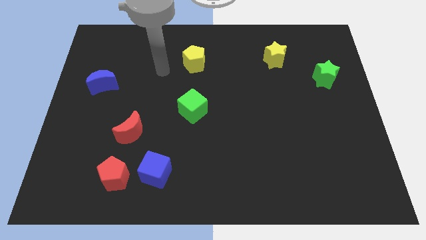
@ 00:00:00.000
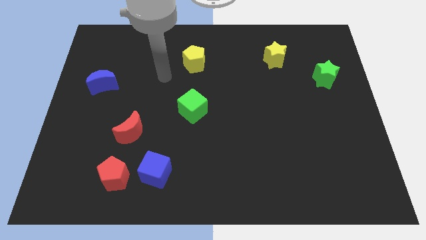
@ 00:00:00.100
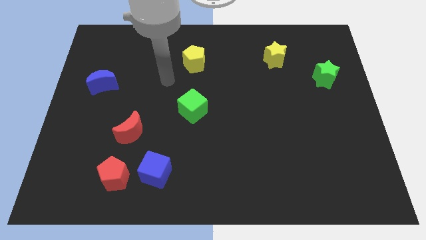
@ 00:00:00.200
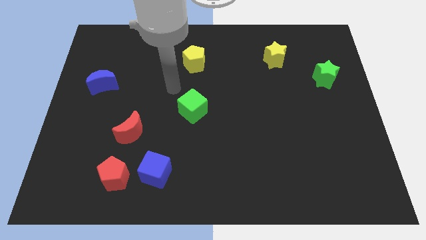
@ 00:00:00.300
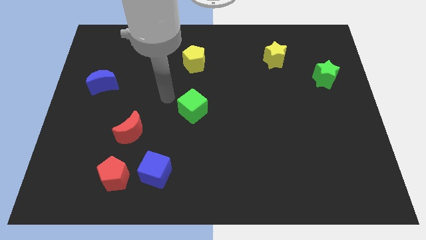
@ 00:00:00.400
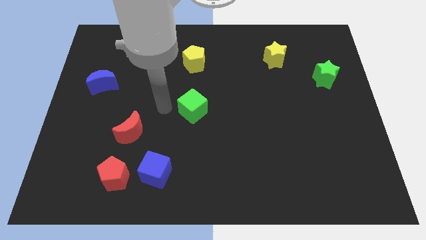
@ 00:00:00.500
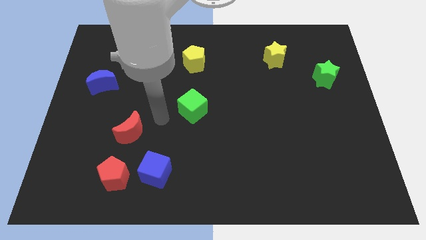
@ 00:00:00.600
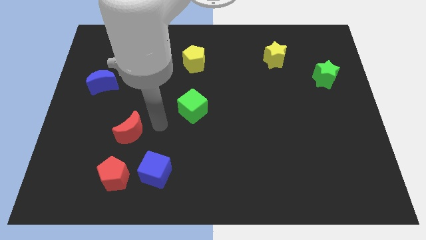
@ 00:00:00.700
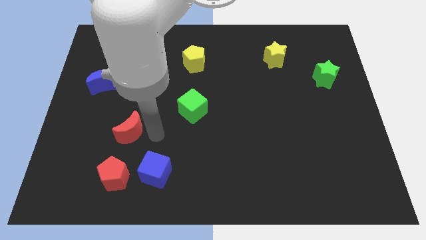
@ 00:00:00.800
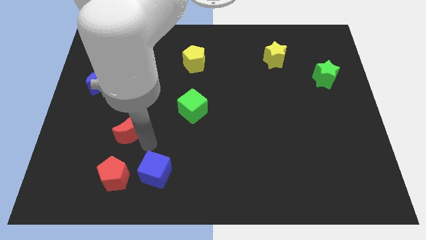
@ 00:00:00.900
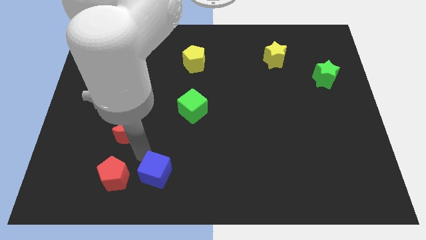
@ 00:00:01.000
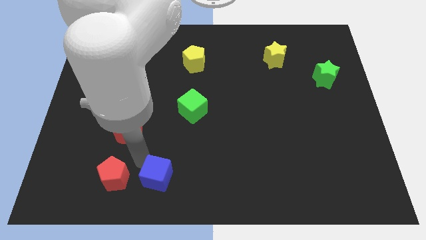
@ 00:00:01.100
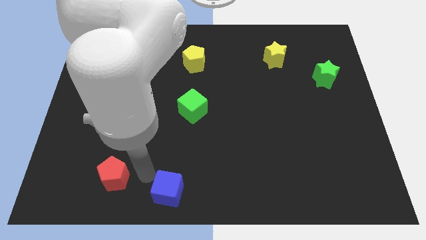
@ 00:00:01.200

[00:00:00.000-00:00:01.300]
separate the red pentagon from the blue cube

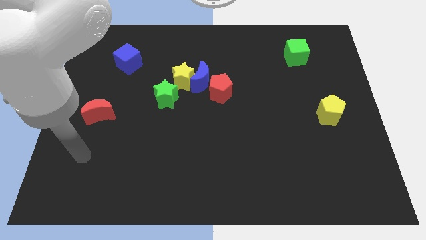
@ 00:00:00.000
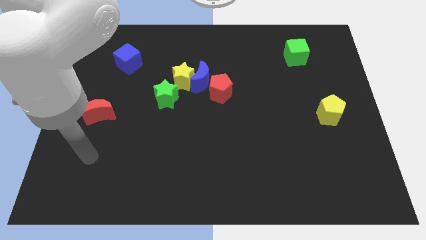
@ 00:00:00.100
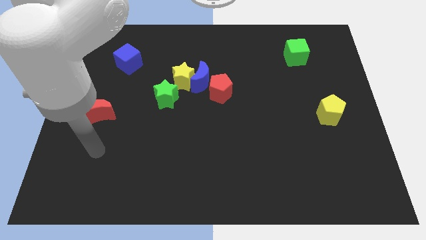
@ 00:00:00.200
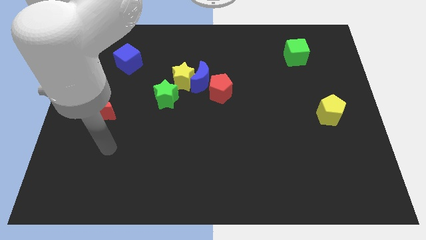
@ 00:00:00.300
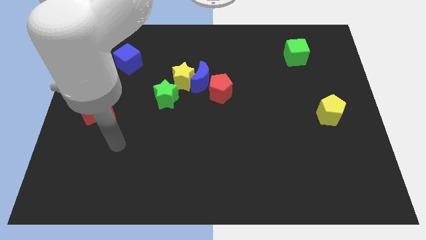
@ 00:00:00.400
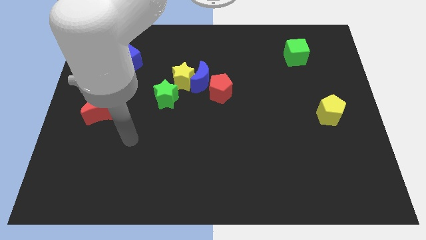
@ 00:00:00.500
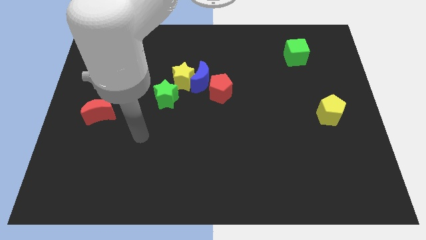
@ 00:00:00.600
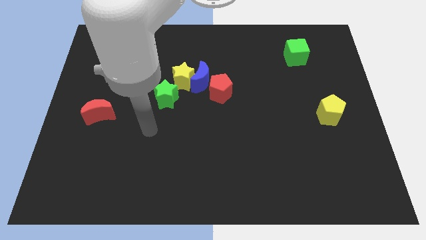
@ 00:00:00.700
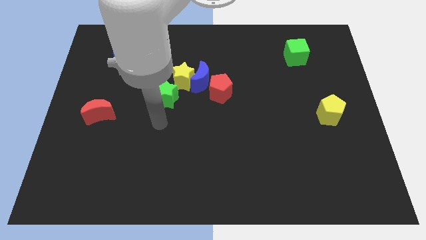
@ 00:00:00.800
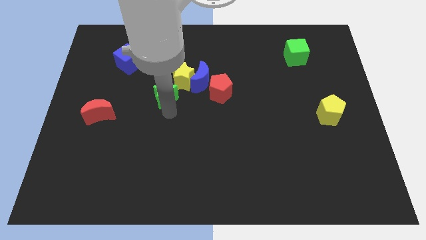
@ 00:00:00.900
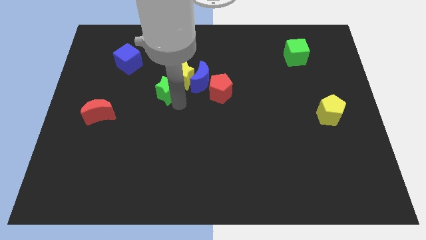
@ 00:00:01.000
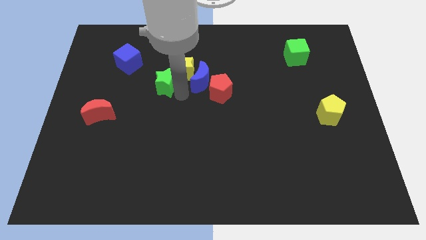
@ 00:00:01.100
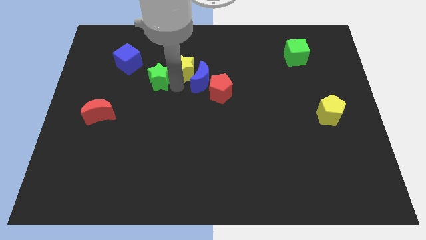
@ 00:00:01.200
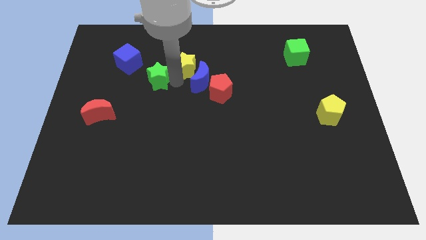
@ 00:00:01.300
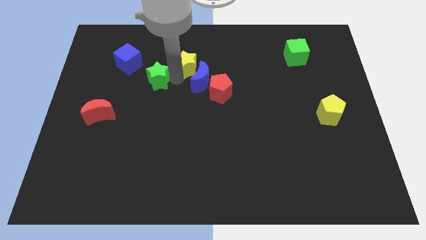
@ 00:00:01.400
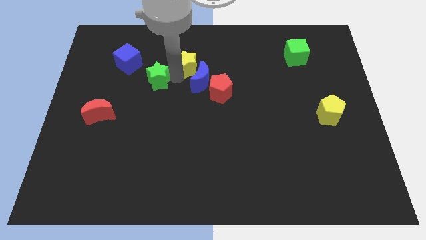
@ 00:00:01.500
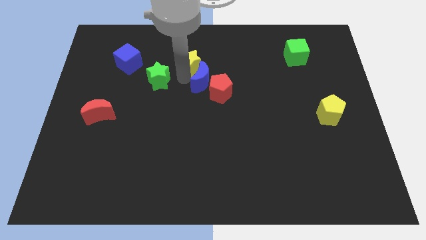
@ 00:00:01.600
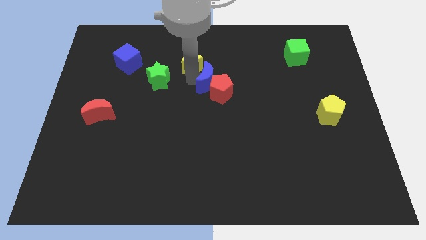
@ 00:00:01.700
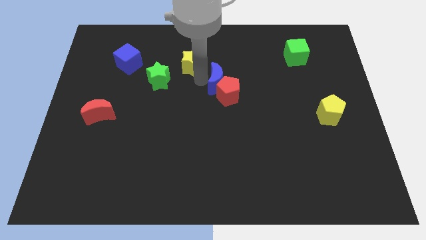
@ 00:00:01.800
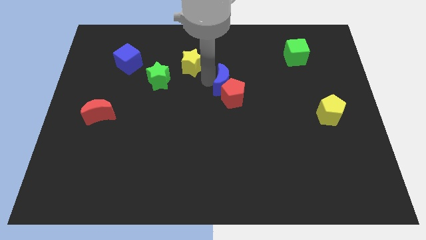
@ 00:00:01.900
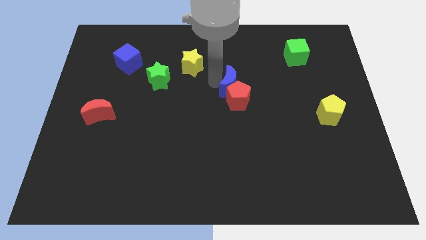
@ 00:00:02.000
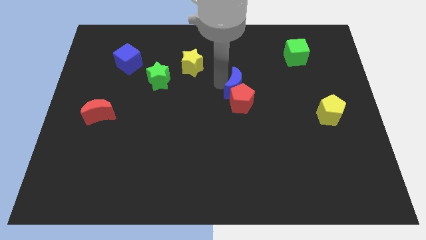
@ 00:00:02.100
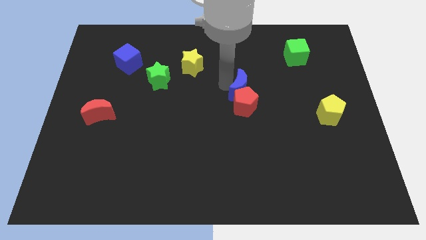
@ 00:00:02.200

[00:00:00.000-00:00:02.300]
separate the blue moon from the group of blocks

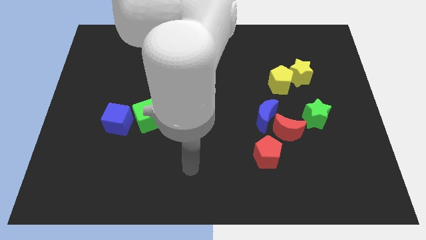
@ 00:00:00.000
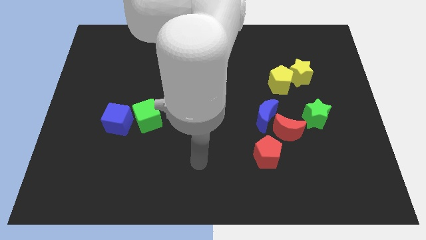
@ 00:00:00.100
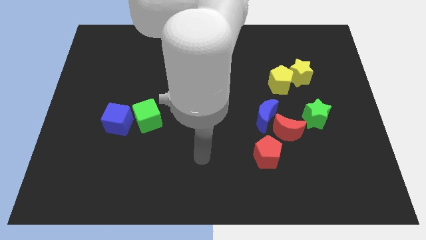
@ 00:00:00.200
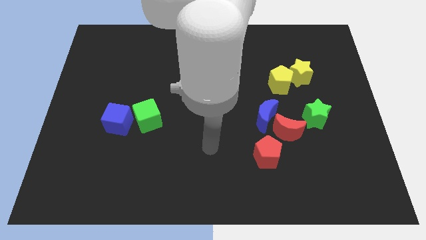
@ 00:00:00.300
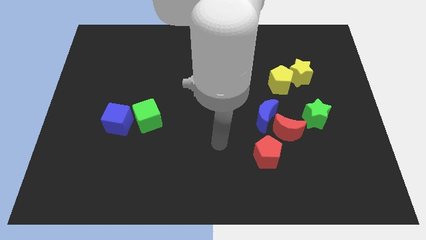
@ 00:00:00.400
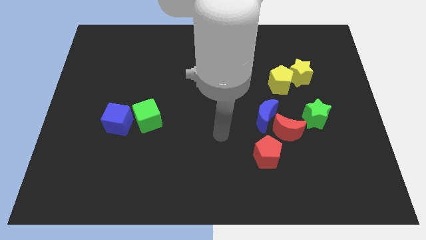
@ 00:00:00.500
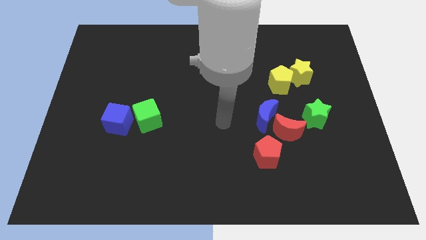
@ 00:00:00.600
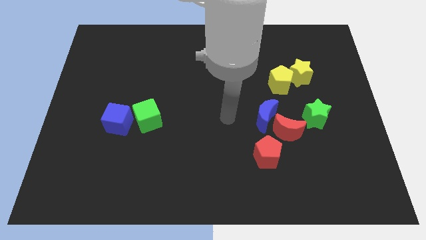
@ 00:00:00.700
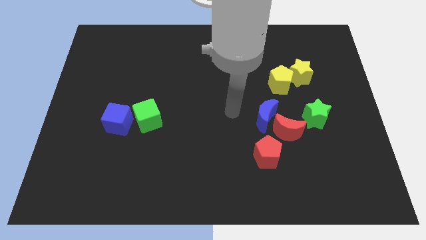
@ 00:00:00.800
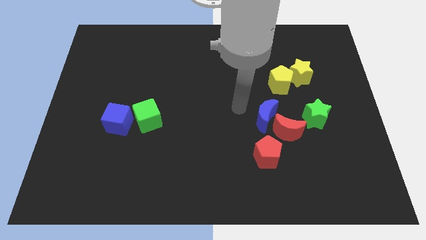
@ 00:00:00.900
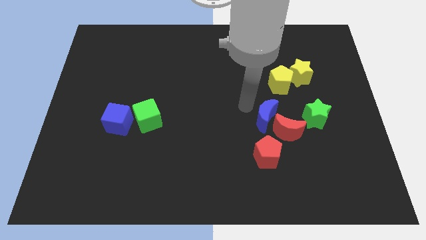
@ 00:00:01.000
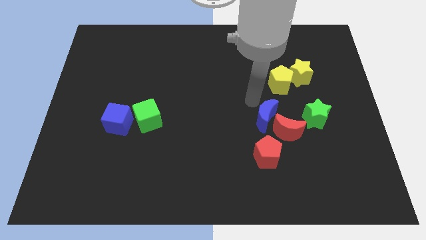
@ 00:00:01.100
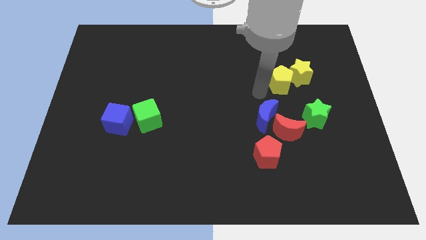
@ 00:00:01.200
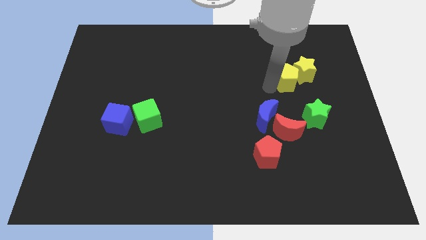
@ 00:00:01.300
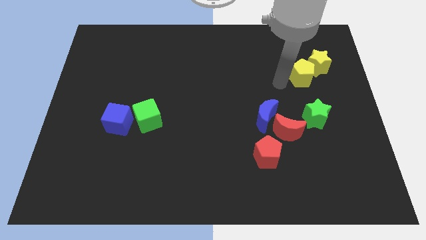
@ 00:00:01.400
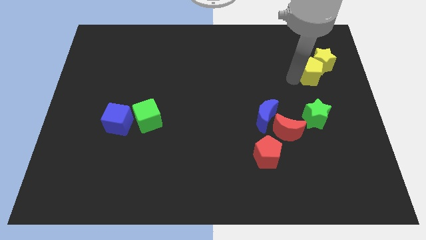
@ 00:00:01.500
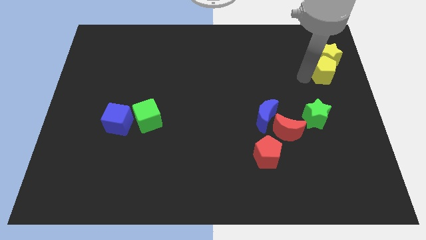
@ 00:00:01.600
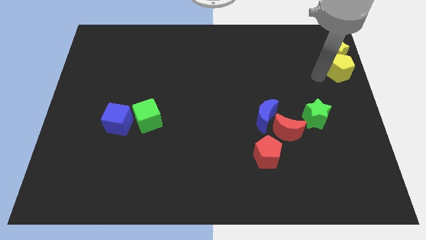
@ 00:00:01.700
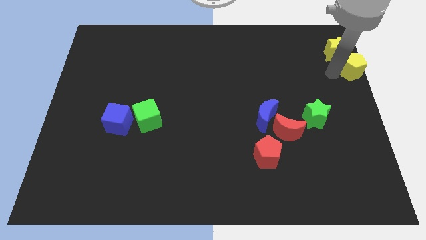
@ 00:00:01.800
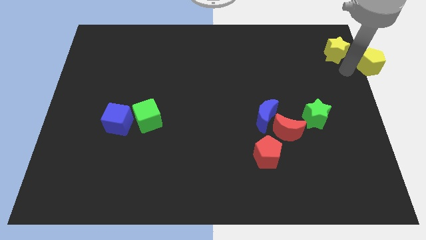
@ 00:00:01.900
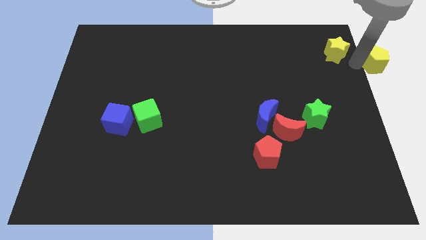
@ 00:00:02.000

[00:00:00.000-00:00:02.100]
separate the yellow star from the yellow pentagon

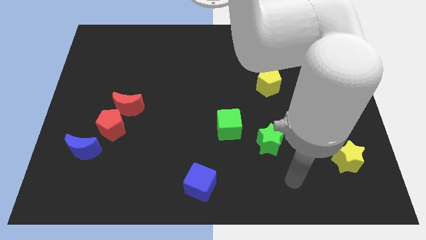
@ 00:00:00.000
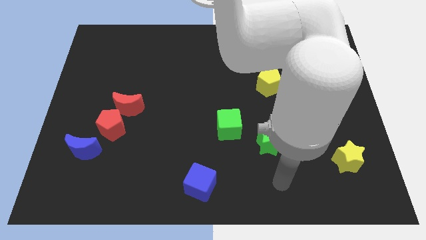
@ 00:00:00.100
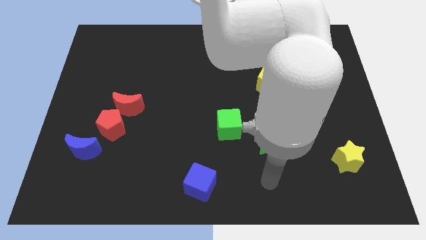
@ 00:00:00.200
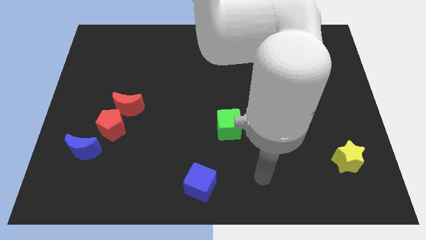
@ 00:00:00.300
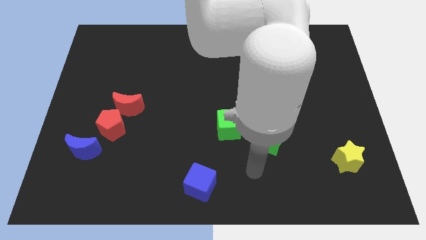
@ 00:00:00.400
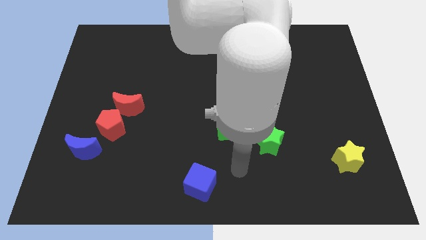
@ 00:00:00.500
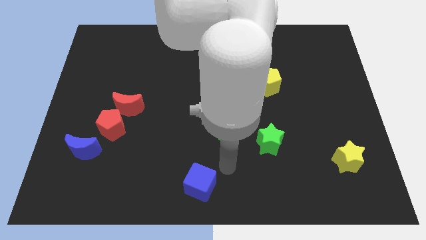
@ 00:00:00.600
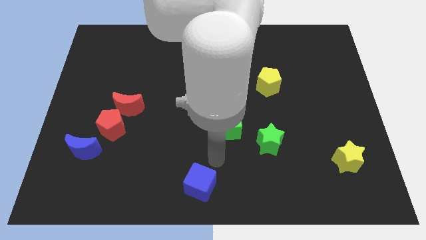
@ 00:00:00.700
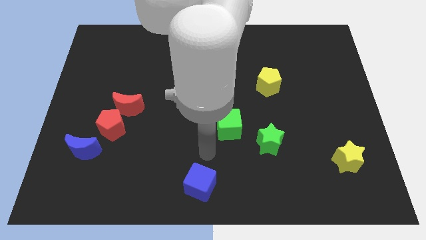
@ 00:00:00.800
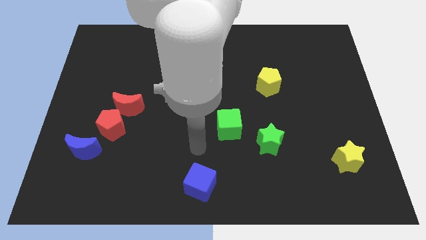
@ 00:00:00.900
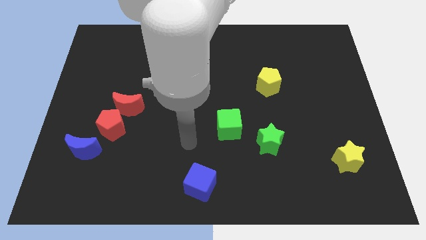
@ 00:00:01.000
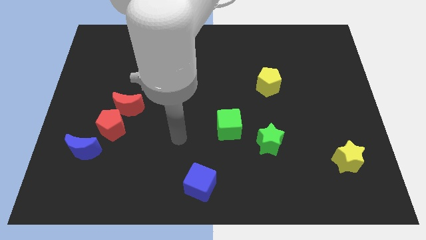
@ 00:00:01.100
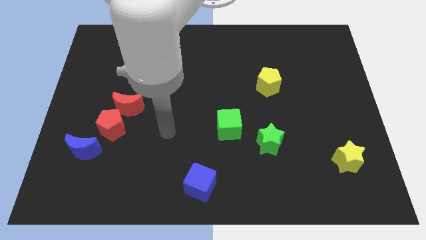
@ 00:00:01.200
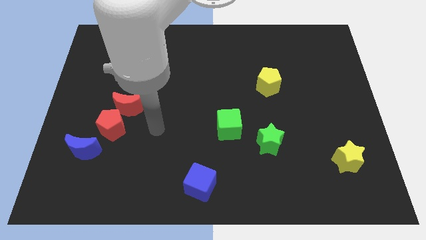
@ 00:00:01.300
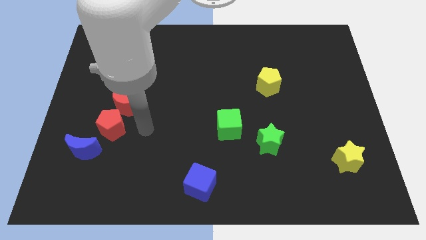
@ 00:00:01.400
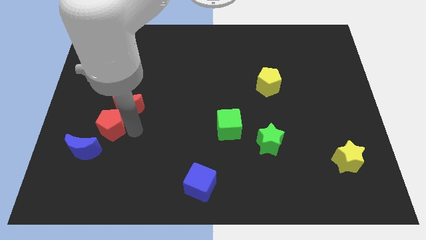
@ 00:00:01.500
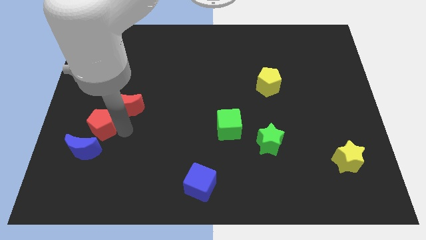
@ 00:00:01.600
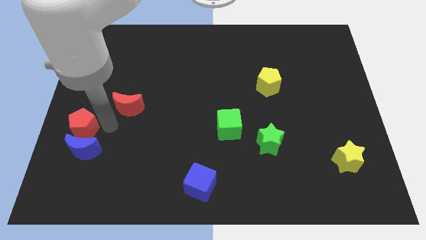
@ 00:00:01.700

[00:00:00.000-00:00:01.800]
separate the red moon from the red pentagon

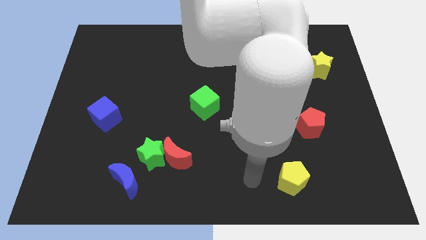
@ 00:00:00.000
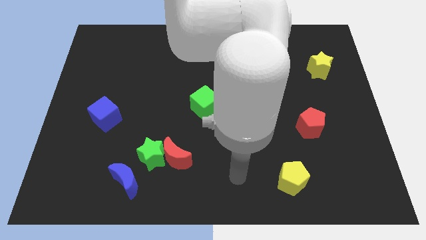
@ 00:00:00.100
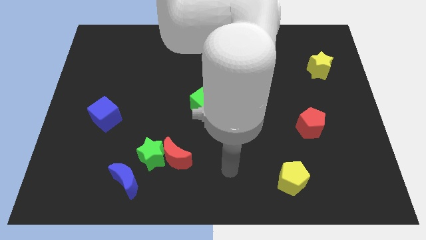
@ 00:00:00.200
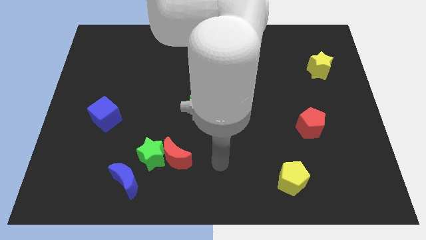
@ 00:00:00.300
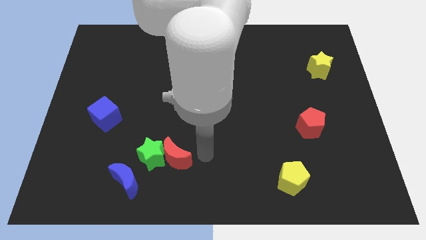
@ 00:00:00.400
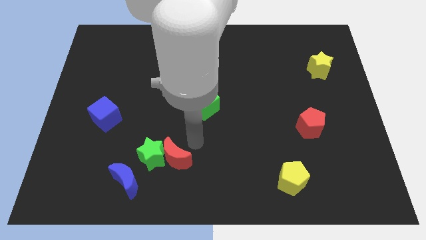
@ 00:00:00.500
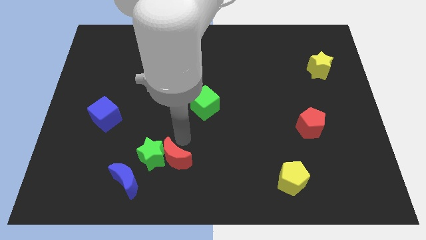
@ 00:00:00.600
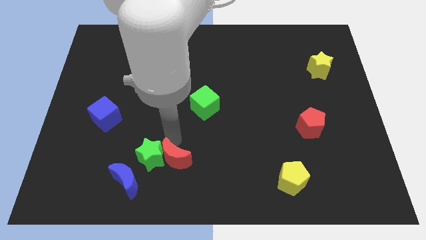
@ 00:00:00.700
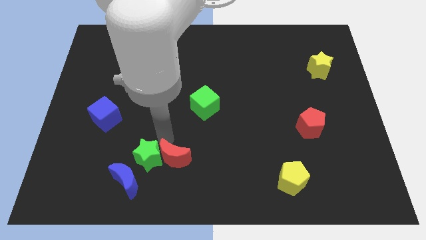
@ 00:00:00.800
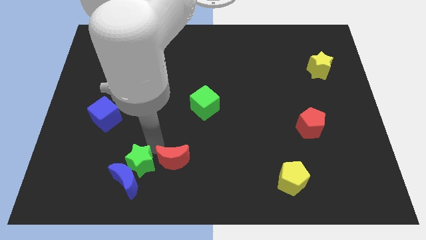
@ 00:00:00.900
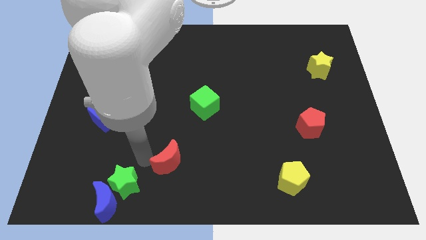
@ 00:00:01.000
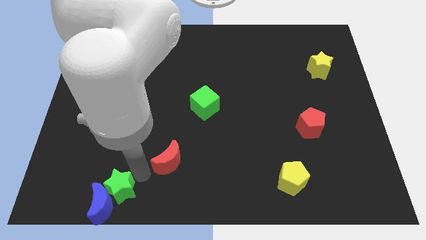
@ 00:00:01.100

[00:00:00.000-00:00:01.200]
separate the red moon from the green star

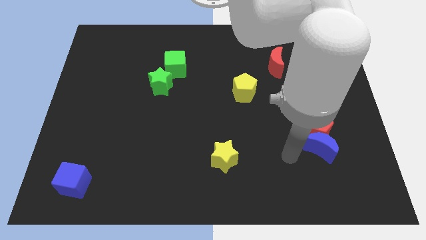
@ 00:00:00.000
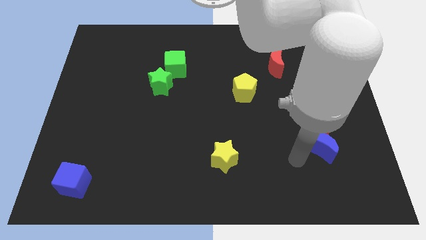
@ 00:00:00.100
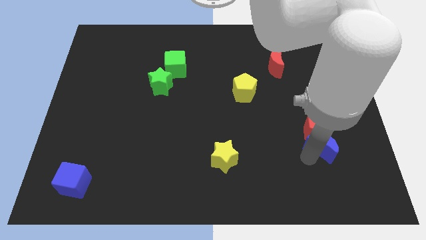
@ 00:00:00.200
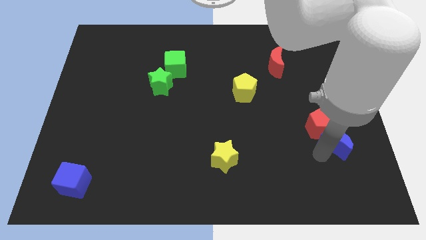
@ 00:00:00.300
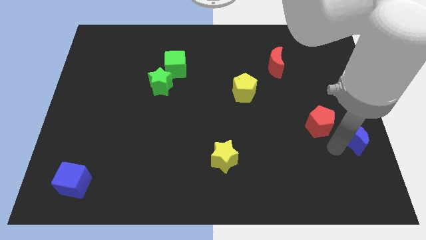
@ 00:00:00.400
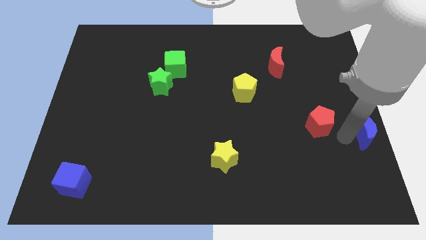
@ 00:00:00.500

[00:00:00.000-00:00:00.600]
move the red pentagon away from the blue moon
